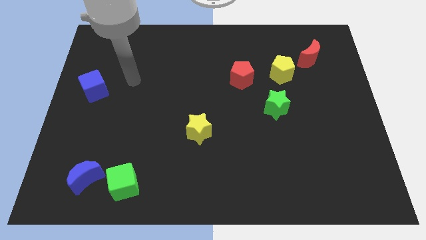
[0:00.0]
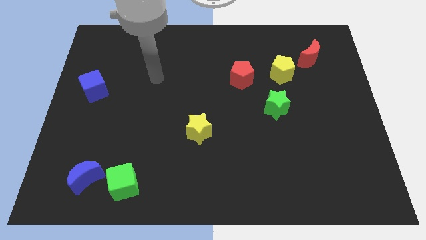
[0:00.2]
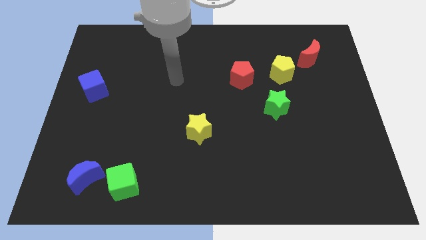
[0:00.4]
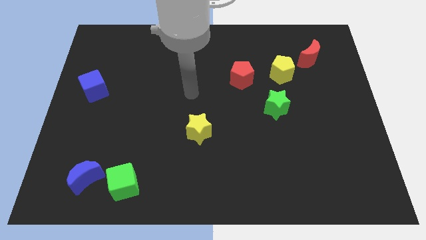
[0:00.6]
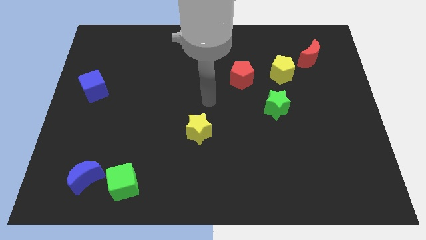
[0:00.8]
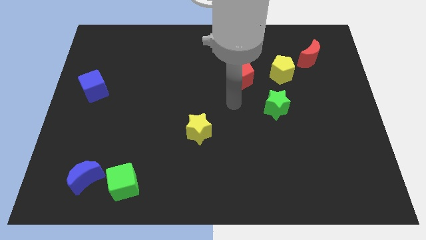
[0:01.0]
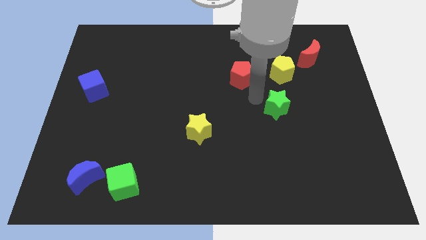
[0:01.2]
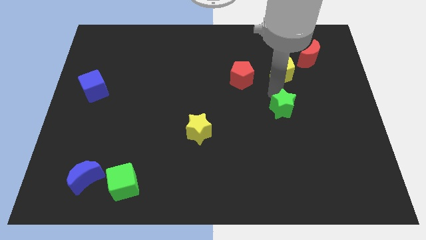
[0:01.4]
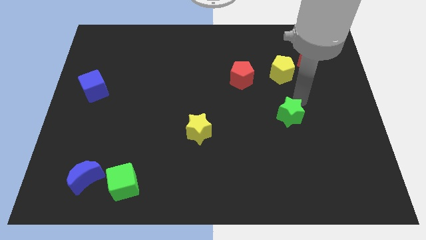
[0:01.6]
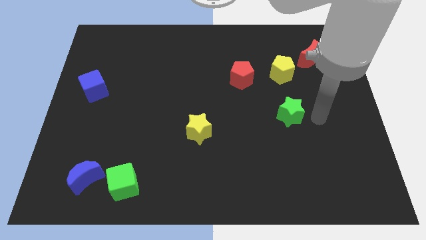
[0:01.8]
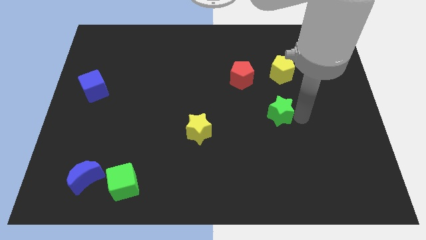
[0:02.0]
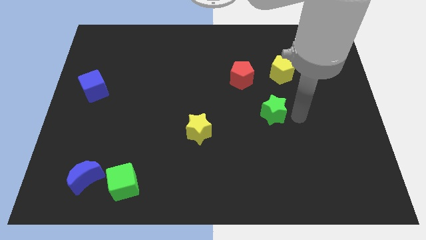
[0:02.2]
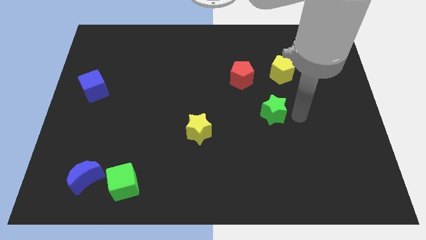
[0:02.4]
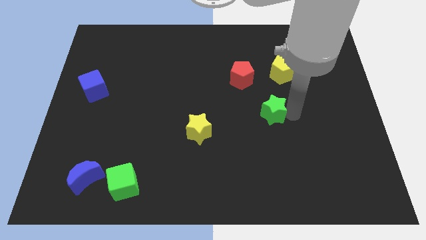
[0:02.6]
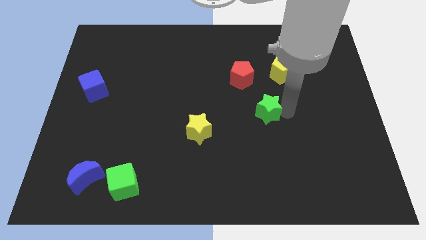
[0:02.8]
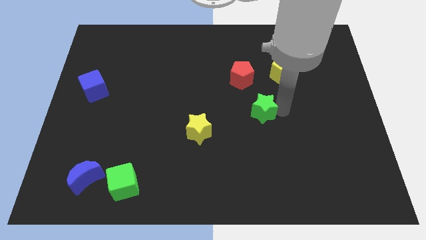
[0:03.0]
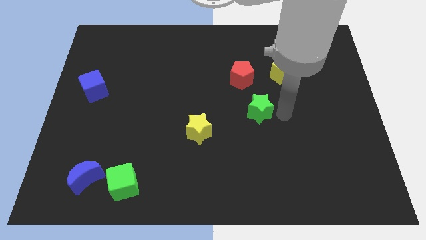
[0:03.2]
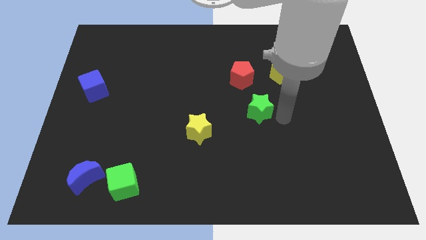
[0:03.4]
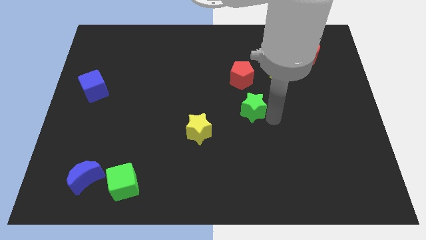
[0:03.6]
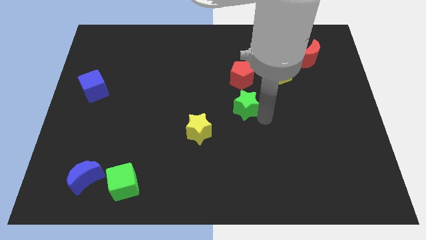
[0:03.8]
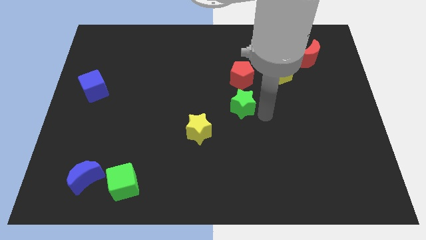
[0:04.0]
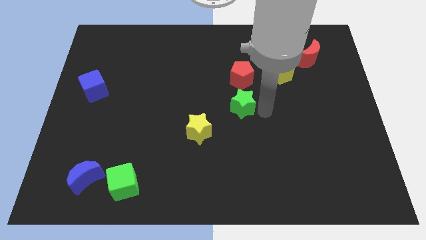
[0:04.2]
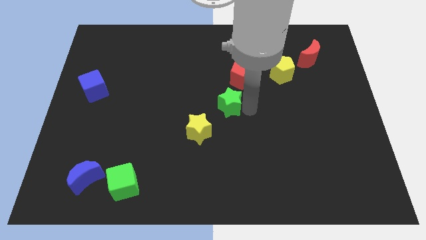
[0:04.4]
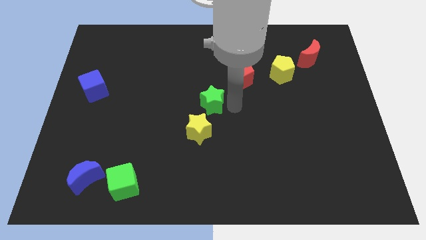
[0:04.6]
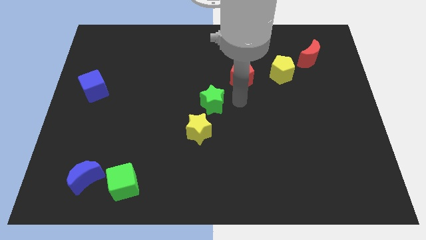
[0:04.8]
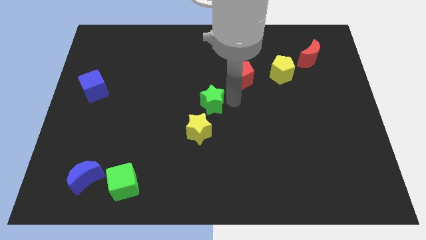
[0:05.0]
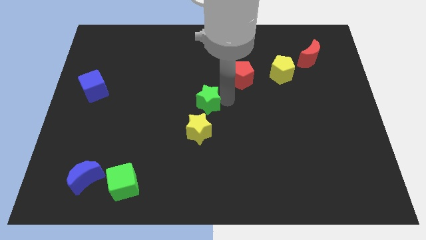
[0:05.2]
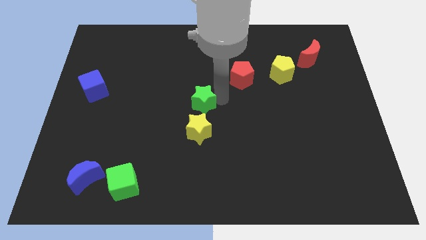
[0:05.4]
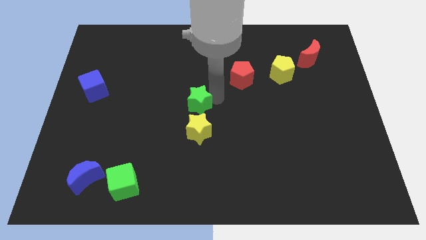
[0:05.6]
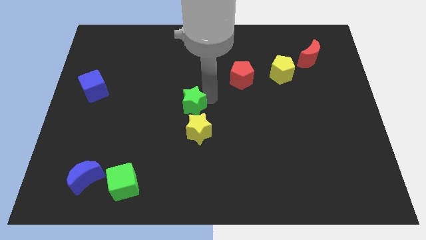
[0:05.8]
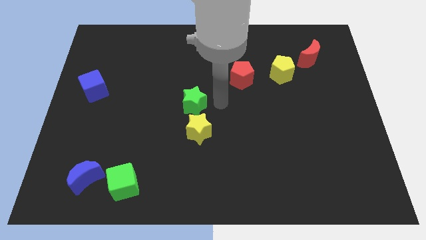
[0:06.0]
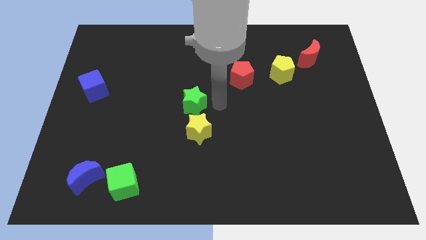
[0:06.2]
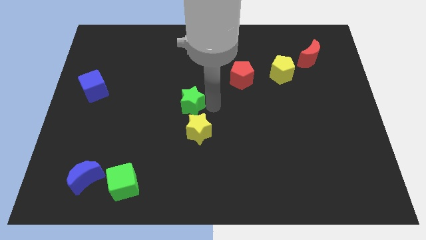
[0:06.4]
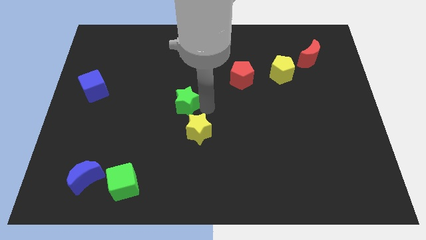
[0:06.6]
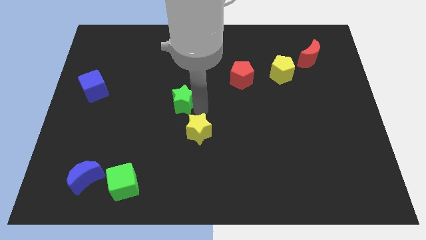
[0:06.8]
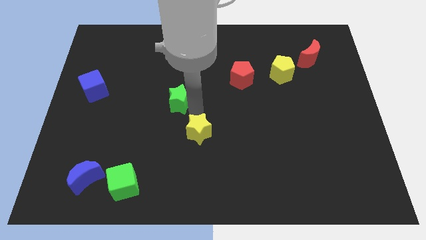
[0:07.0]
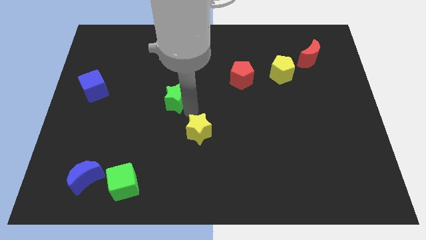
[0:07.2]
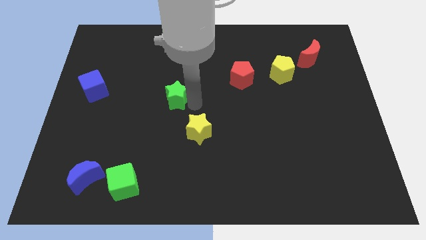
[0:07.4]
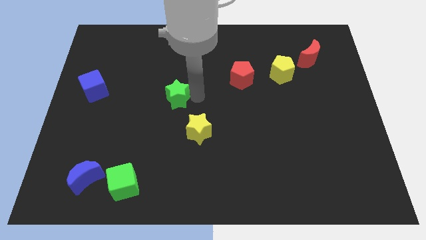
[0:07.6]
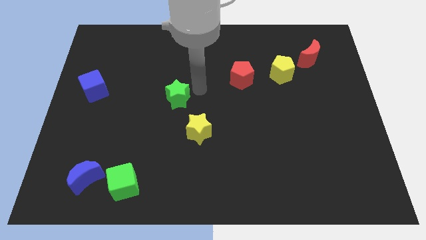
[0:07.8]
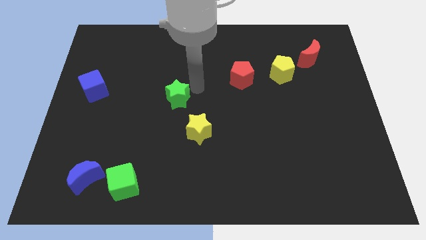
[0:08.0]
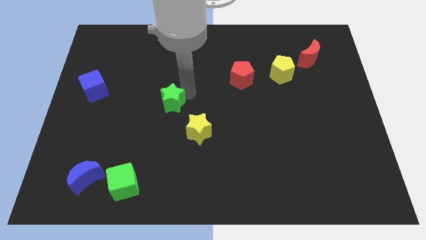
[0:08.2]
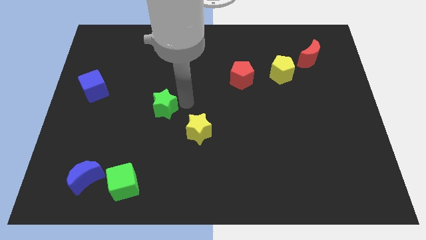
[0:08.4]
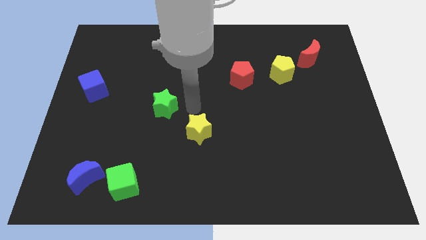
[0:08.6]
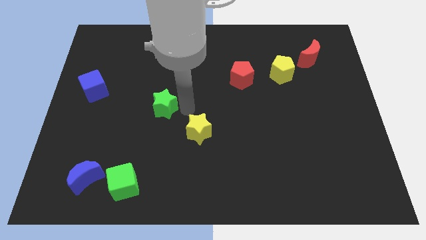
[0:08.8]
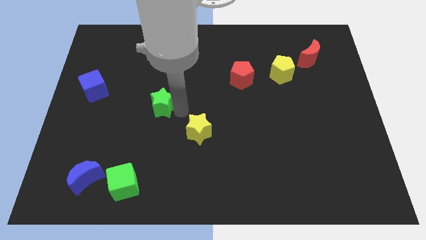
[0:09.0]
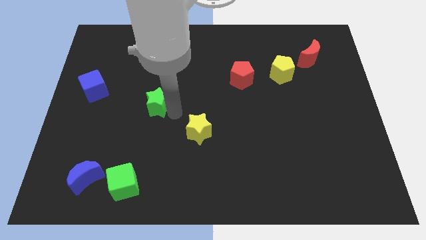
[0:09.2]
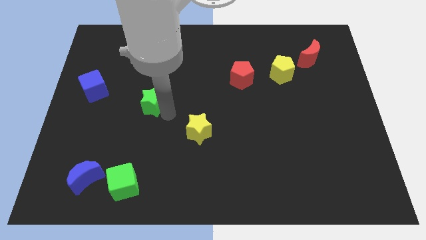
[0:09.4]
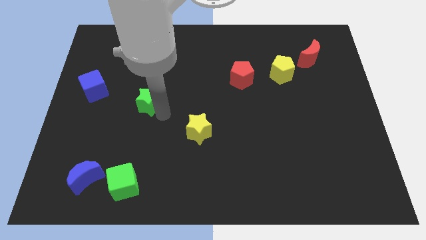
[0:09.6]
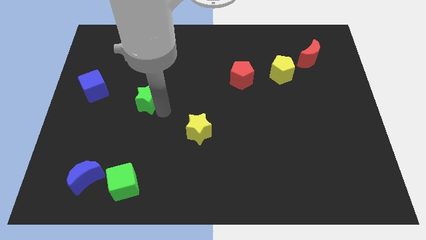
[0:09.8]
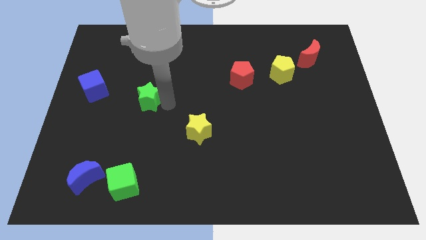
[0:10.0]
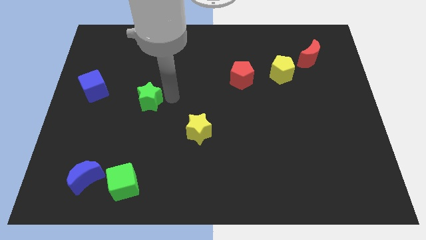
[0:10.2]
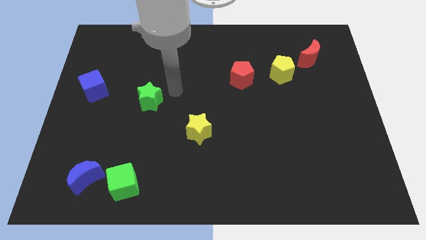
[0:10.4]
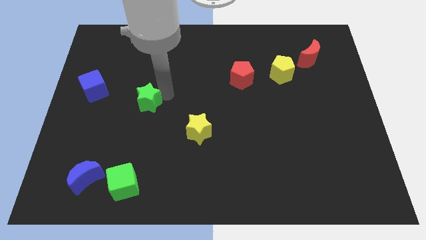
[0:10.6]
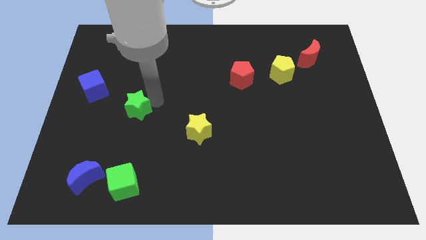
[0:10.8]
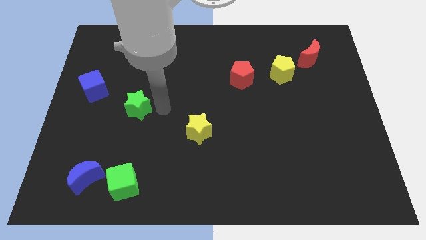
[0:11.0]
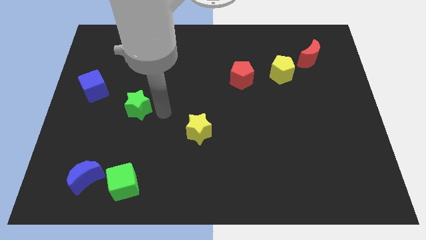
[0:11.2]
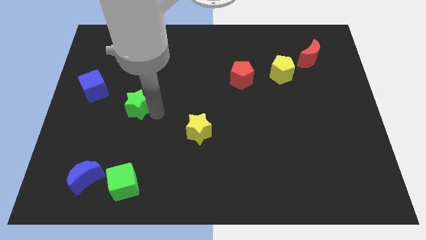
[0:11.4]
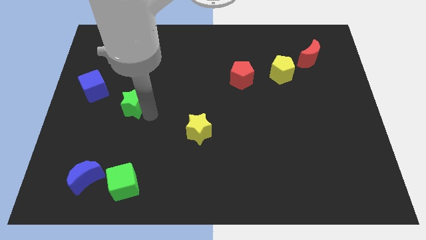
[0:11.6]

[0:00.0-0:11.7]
slide the green star to the bottom right of the blue cube

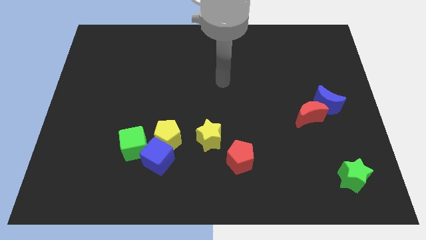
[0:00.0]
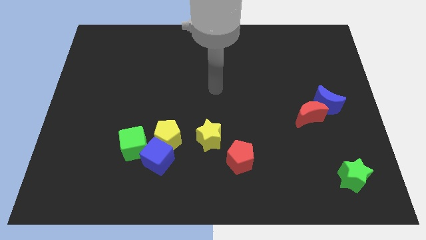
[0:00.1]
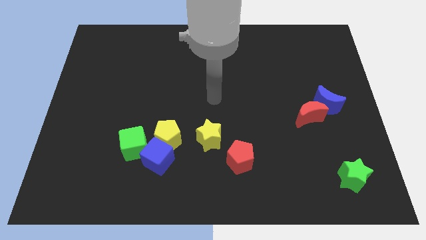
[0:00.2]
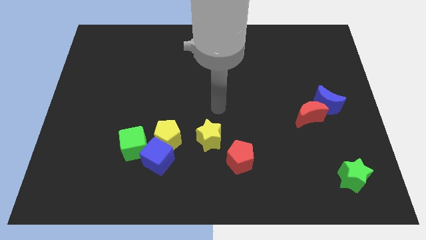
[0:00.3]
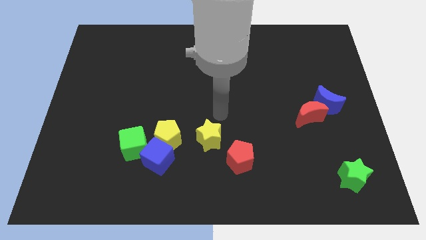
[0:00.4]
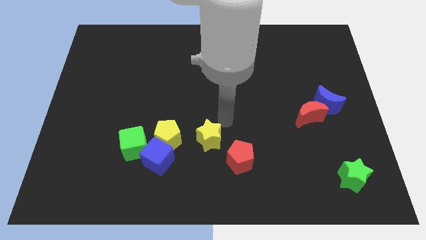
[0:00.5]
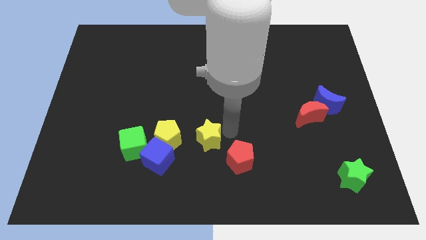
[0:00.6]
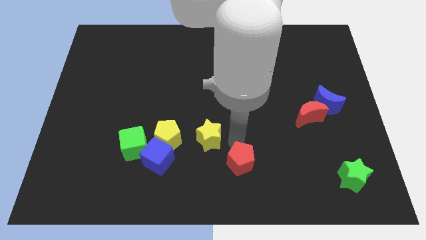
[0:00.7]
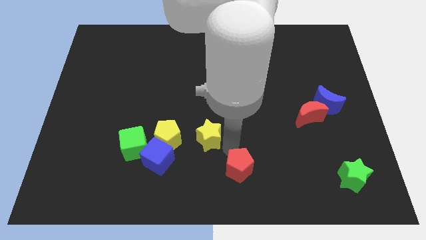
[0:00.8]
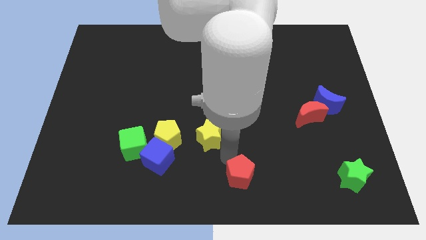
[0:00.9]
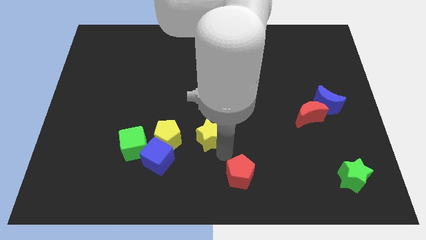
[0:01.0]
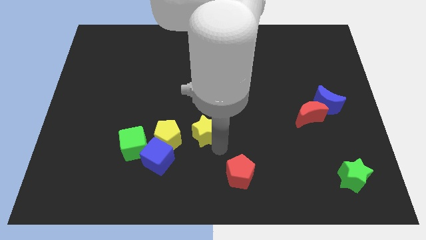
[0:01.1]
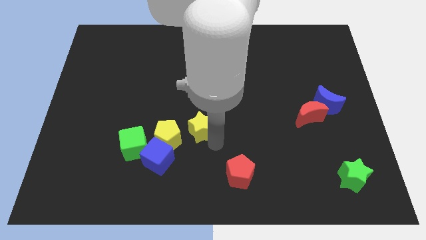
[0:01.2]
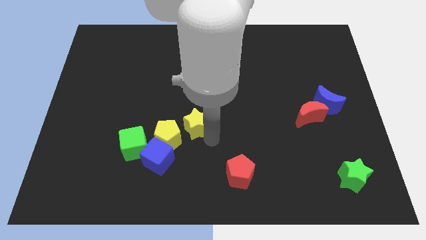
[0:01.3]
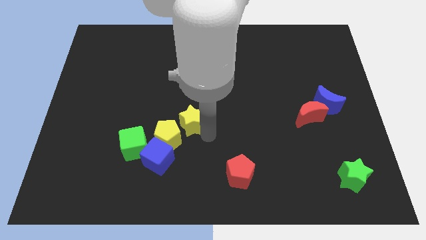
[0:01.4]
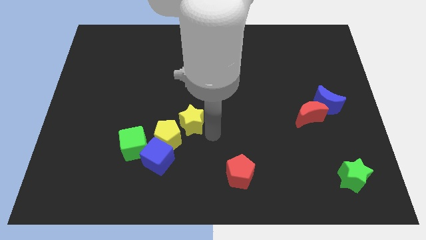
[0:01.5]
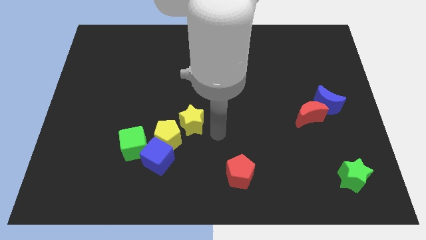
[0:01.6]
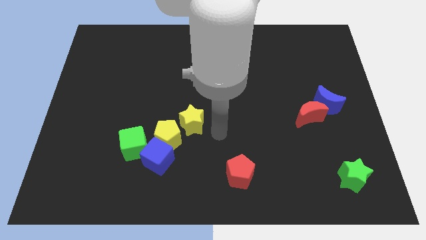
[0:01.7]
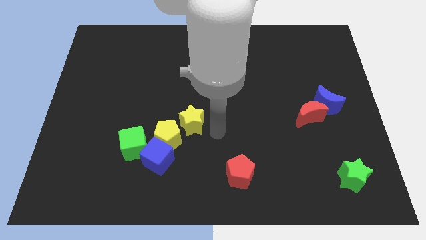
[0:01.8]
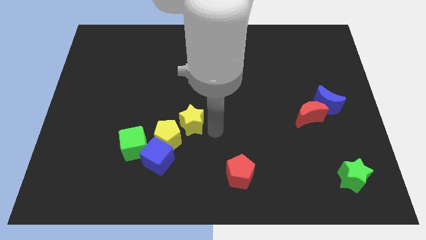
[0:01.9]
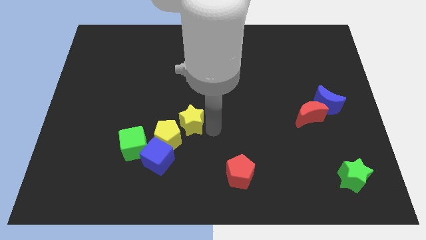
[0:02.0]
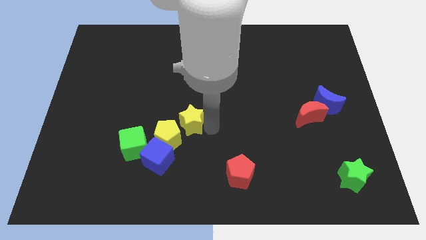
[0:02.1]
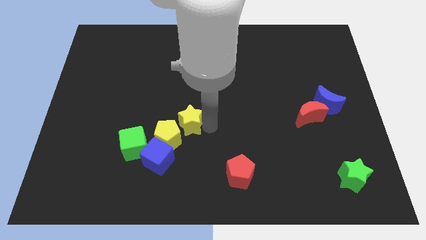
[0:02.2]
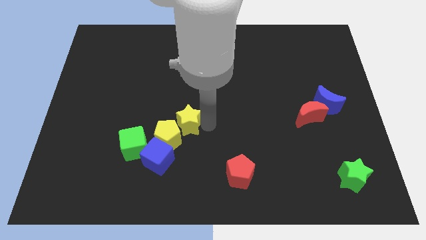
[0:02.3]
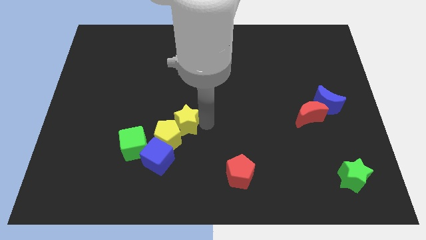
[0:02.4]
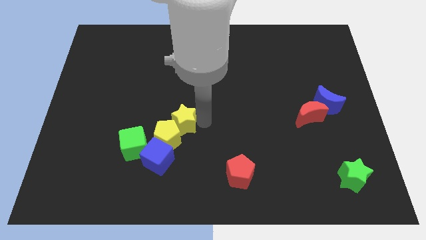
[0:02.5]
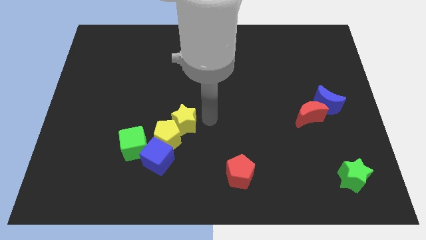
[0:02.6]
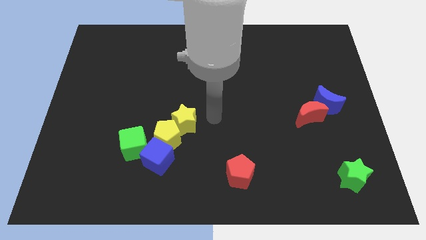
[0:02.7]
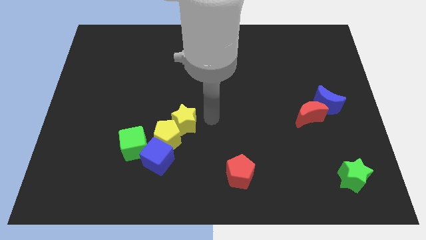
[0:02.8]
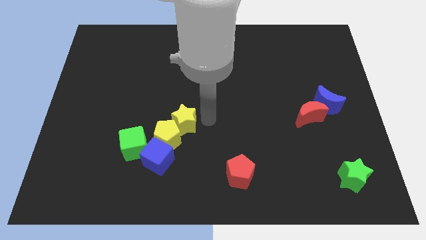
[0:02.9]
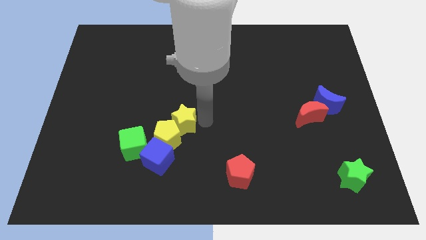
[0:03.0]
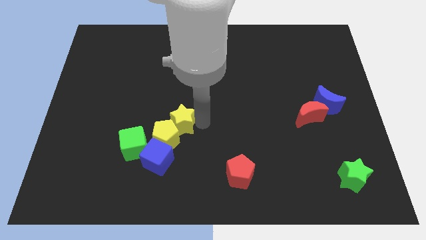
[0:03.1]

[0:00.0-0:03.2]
push the yellow star to the top right side of the green cube
